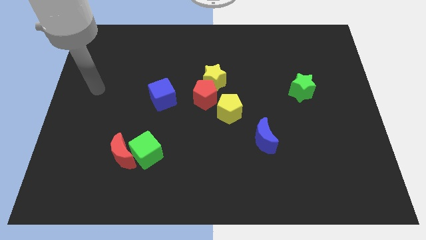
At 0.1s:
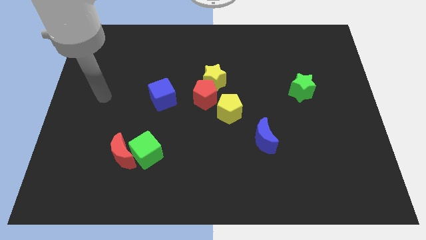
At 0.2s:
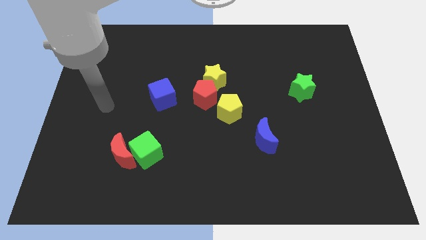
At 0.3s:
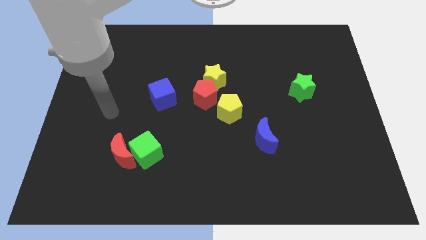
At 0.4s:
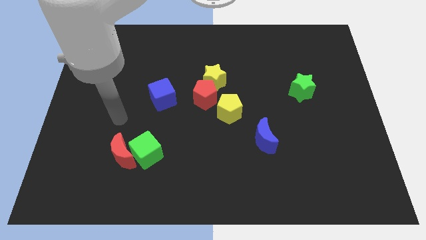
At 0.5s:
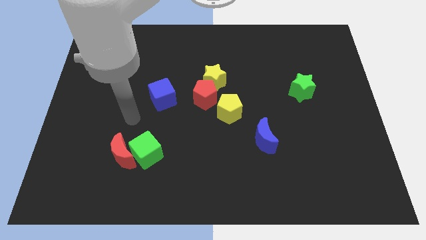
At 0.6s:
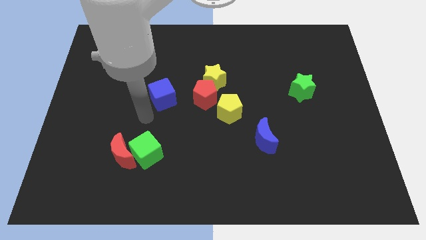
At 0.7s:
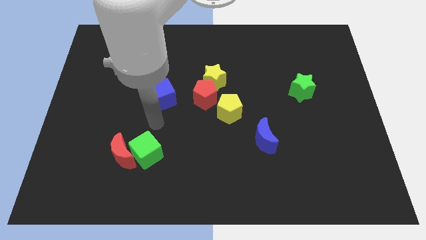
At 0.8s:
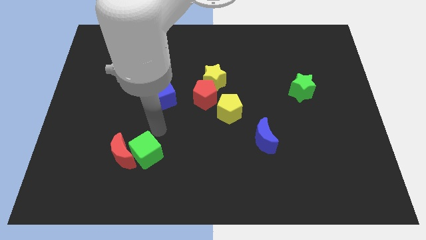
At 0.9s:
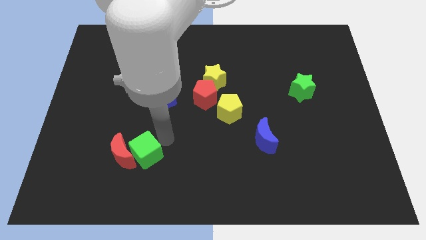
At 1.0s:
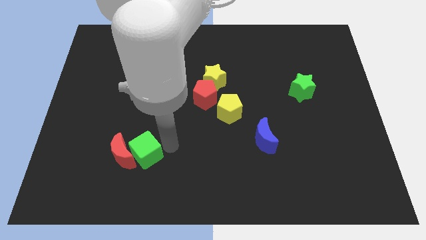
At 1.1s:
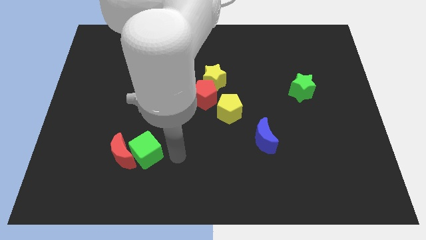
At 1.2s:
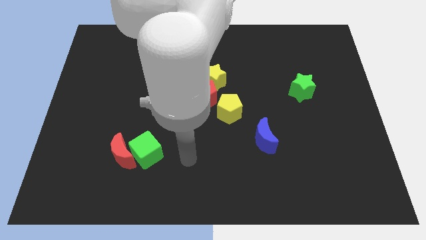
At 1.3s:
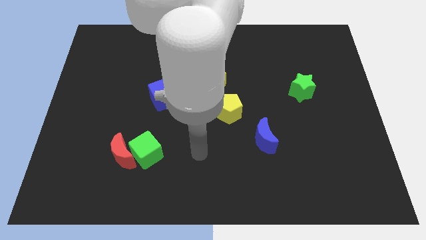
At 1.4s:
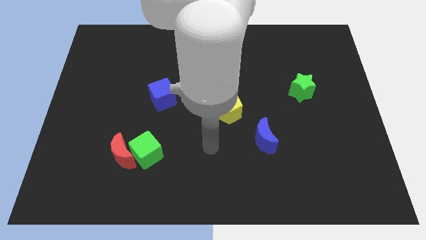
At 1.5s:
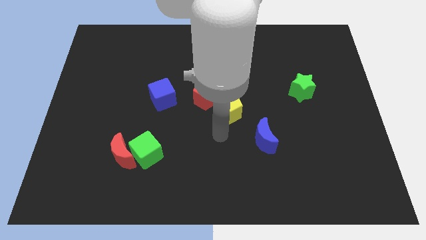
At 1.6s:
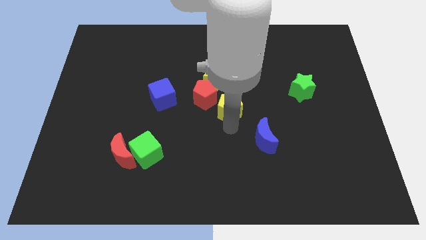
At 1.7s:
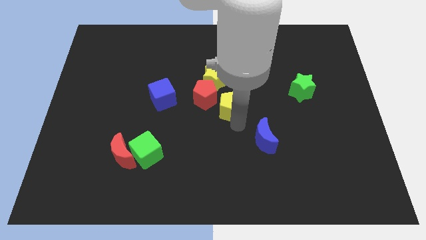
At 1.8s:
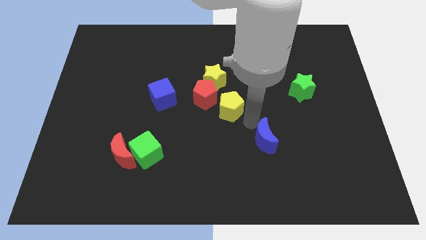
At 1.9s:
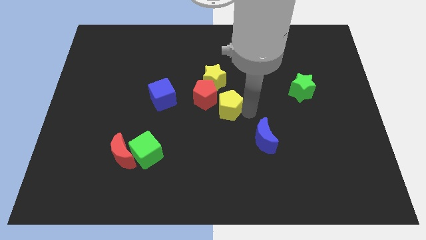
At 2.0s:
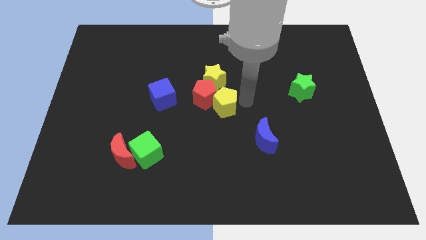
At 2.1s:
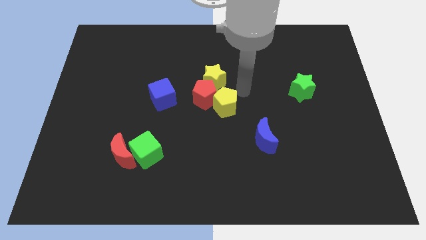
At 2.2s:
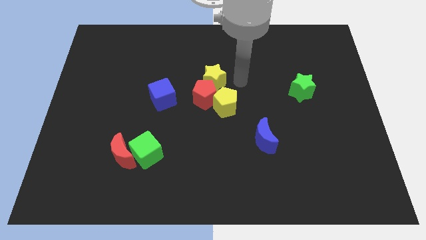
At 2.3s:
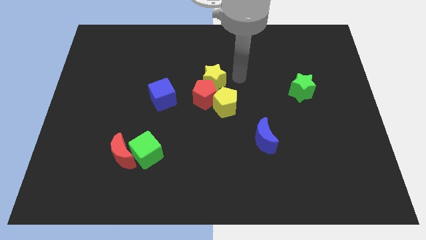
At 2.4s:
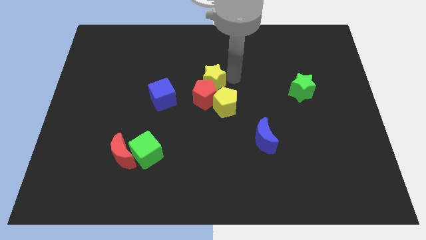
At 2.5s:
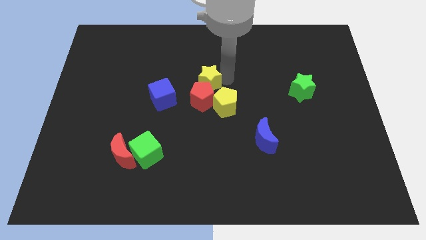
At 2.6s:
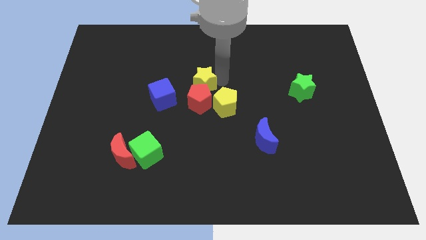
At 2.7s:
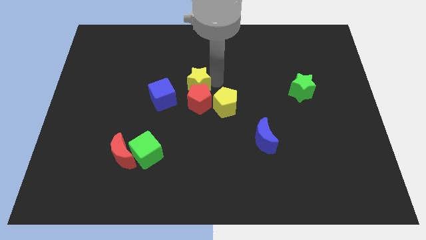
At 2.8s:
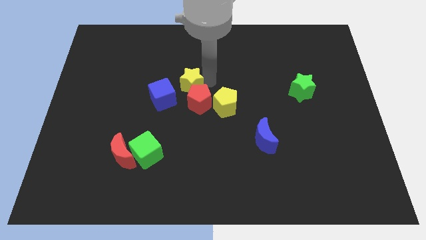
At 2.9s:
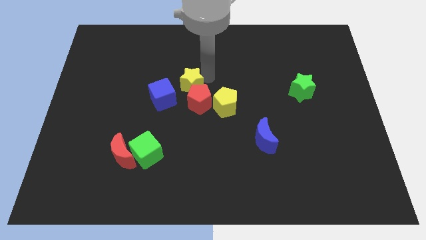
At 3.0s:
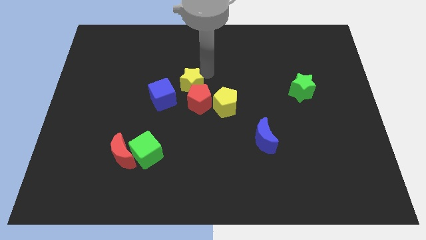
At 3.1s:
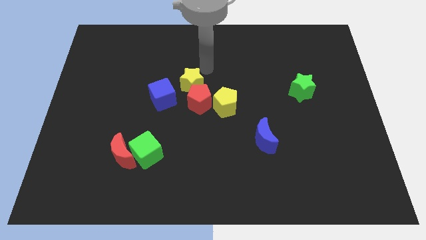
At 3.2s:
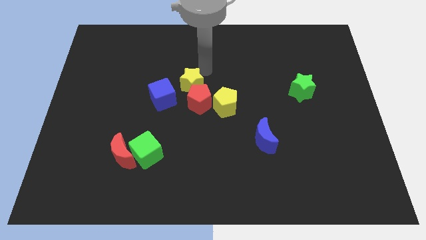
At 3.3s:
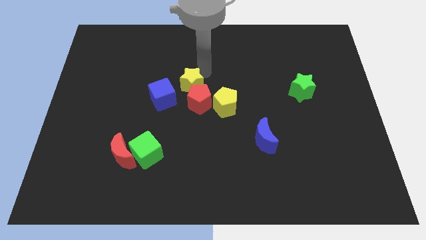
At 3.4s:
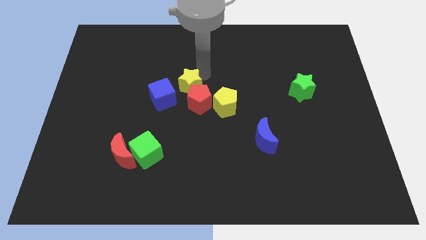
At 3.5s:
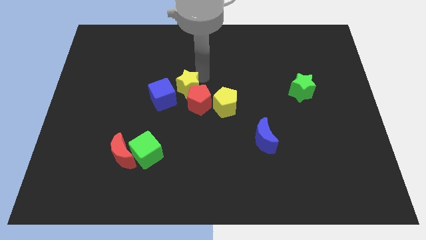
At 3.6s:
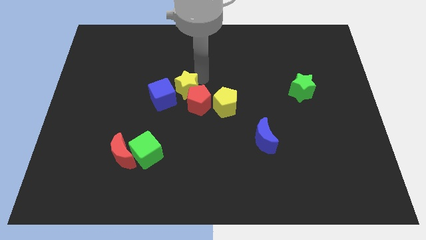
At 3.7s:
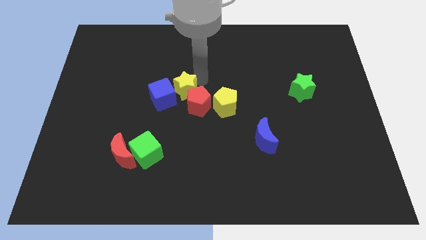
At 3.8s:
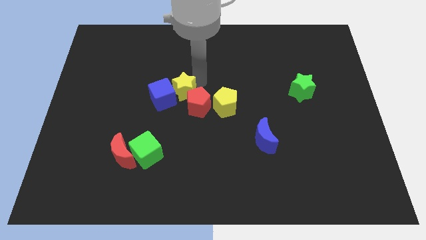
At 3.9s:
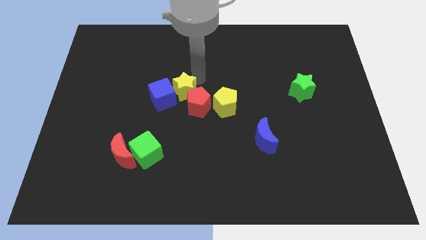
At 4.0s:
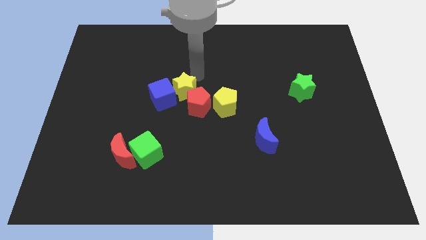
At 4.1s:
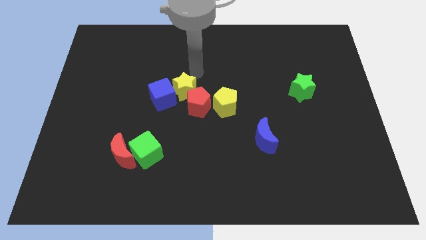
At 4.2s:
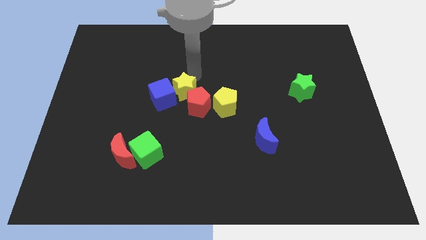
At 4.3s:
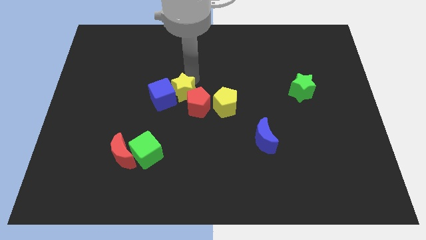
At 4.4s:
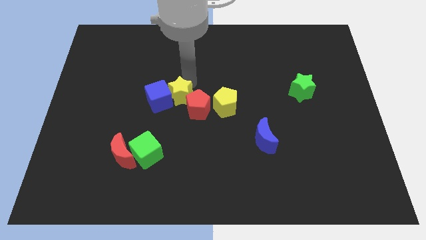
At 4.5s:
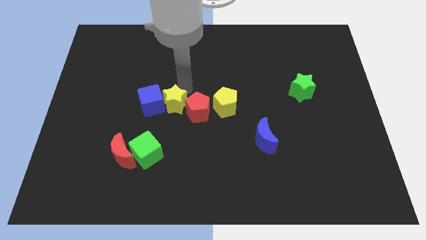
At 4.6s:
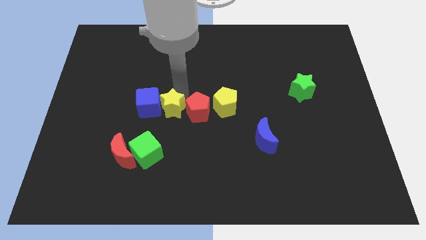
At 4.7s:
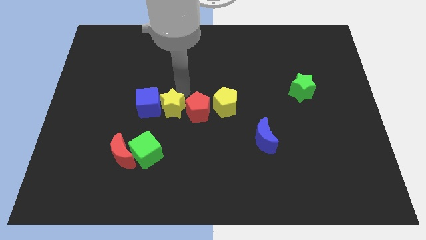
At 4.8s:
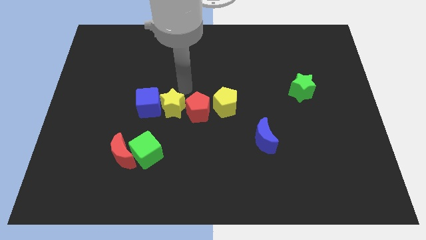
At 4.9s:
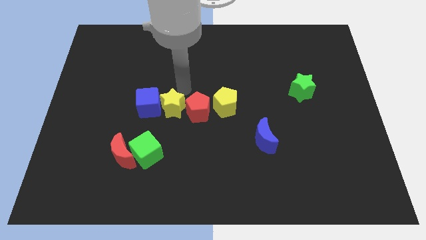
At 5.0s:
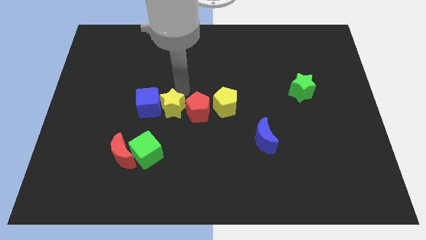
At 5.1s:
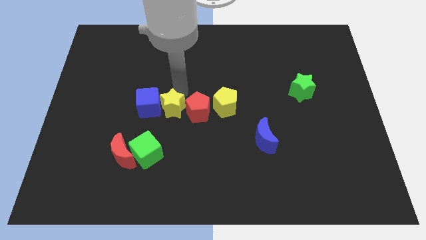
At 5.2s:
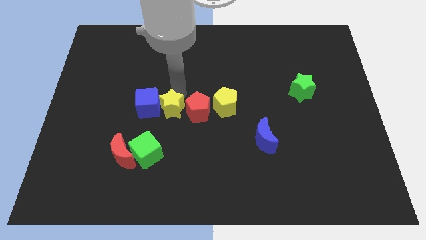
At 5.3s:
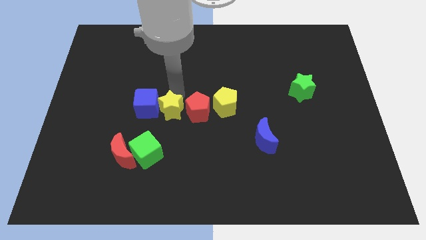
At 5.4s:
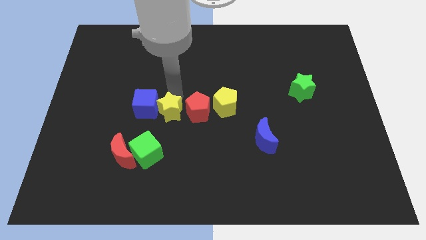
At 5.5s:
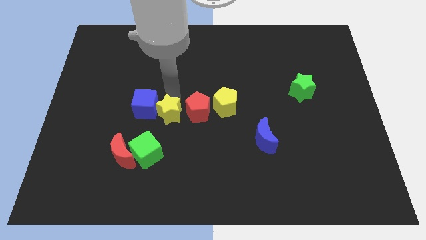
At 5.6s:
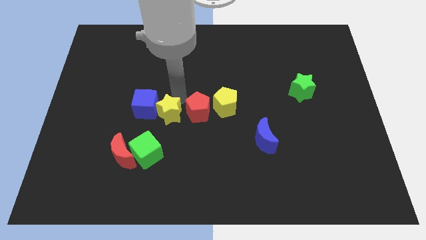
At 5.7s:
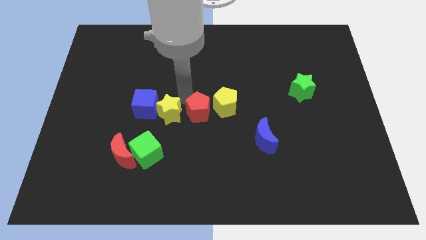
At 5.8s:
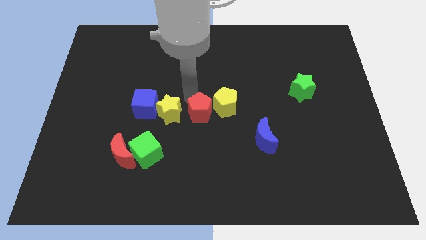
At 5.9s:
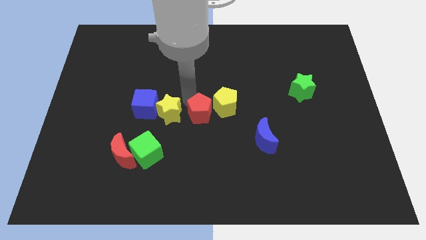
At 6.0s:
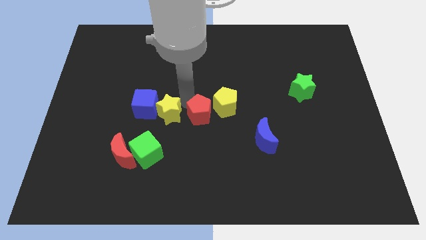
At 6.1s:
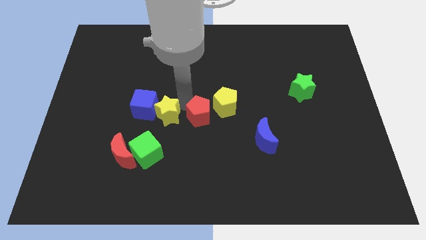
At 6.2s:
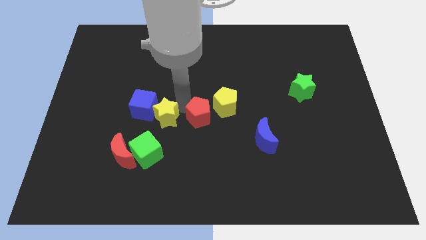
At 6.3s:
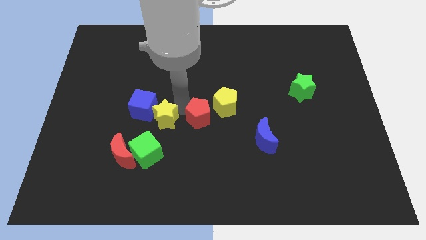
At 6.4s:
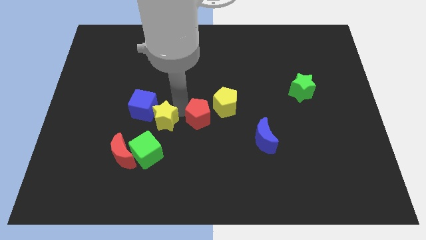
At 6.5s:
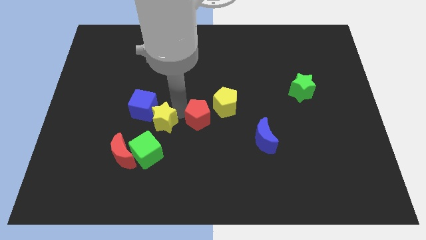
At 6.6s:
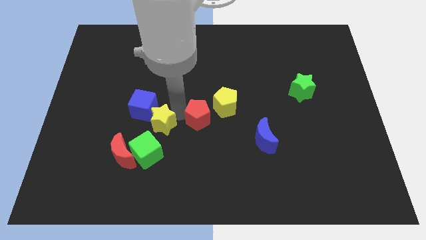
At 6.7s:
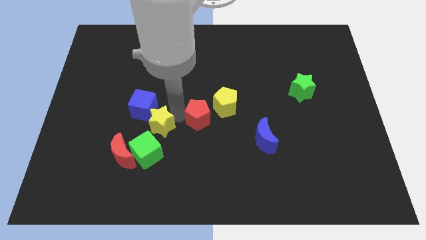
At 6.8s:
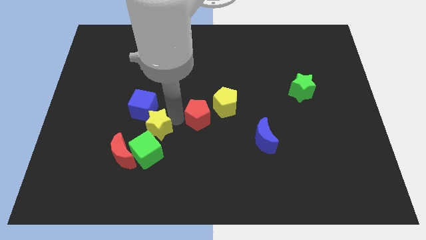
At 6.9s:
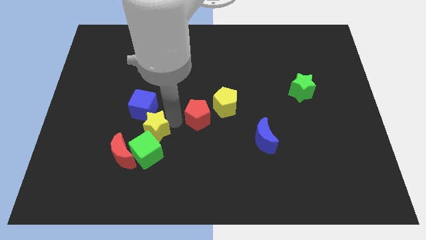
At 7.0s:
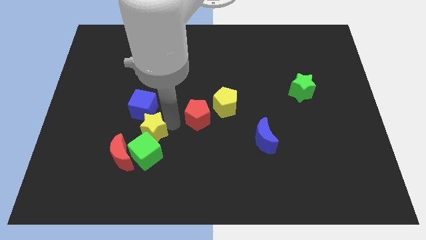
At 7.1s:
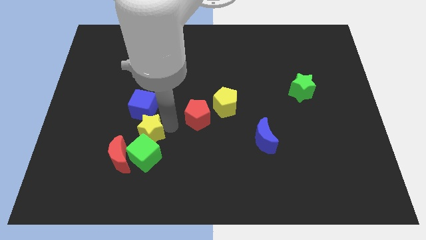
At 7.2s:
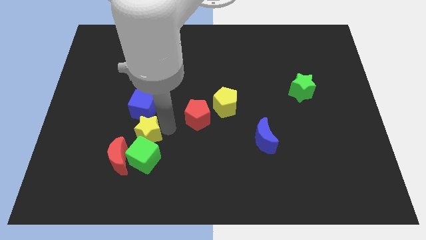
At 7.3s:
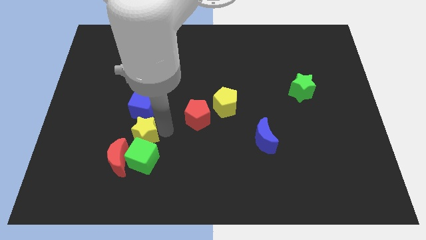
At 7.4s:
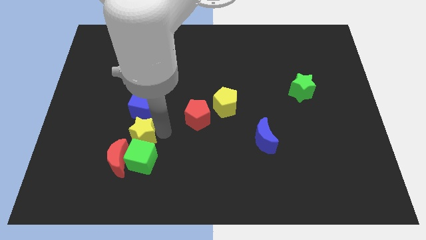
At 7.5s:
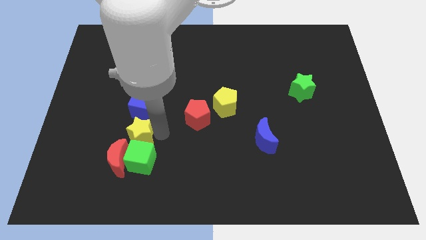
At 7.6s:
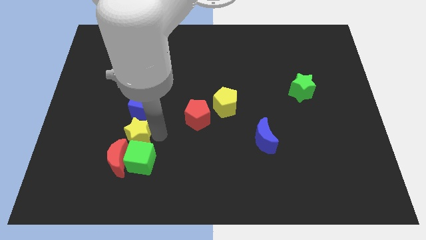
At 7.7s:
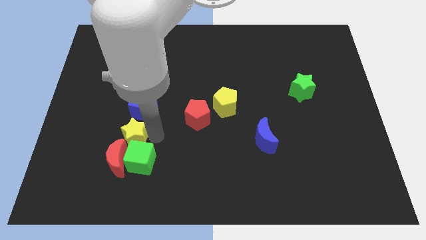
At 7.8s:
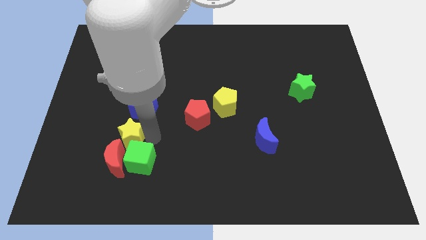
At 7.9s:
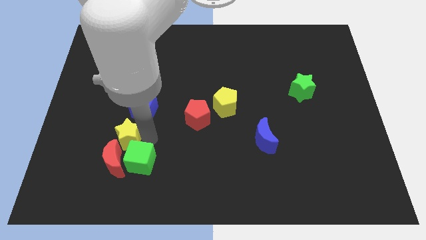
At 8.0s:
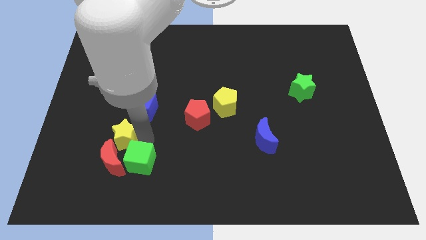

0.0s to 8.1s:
push the yellow star close to the red moon

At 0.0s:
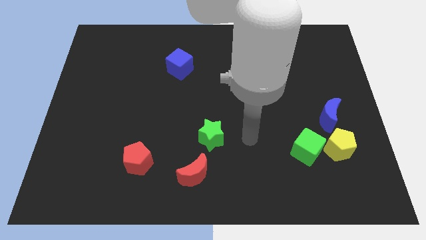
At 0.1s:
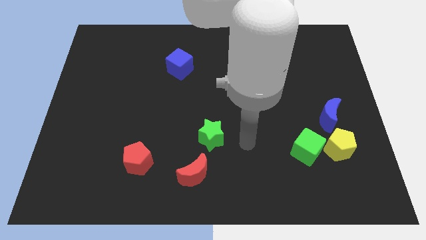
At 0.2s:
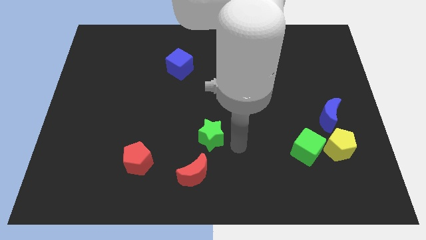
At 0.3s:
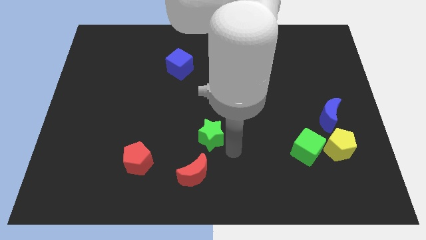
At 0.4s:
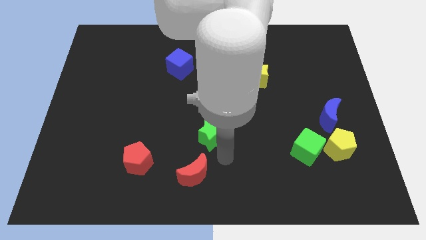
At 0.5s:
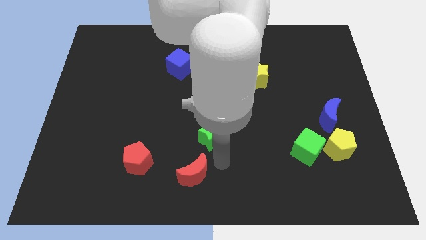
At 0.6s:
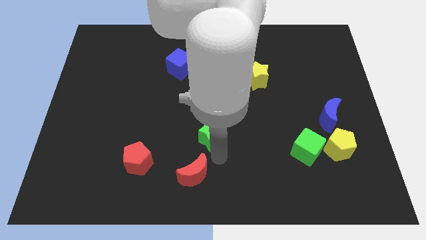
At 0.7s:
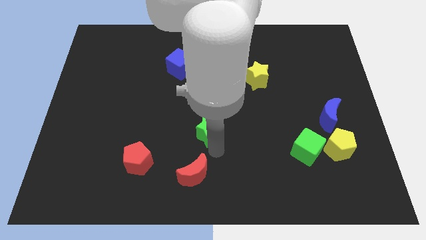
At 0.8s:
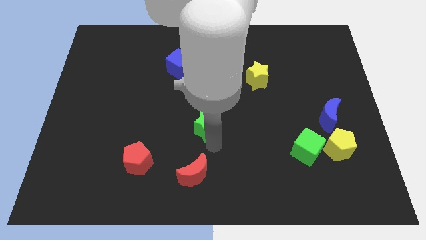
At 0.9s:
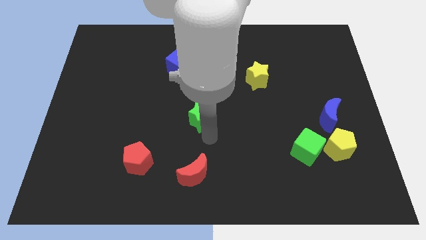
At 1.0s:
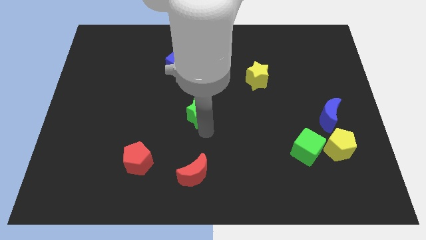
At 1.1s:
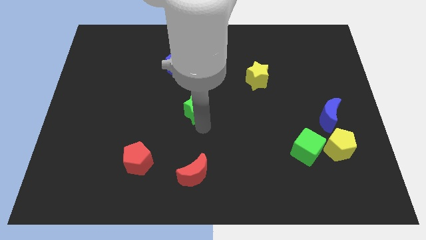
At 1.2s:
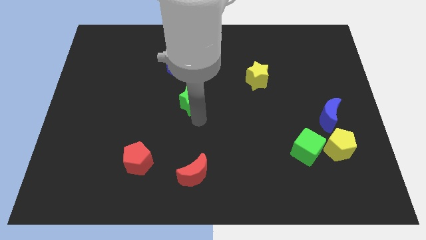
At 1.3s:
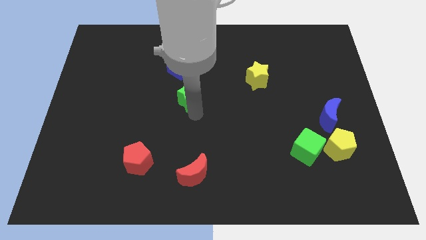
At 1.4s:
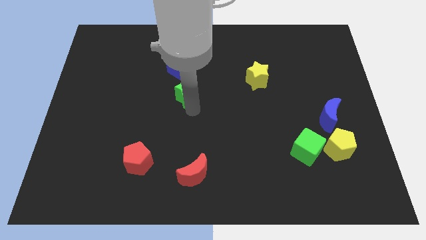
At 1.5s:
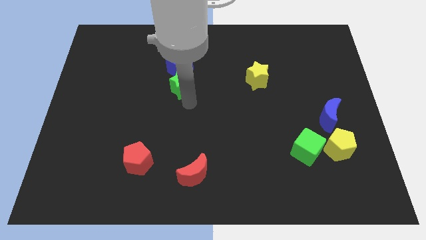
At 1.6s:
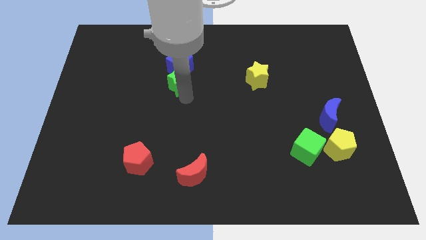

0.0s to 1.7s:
put the green star towards the blue cube
